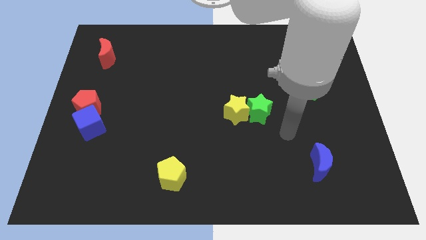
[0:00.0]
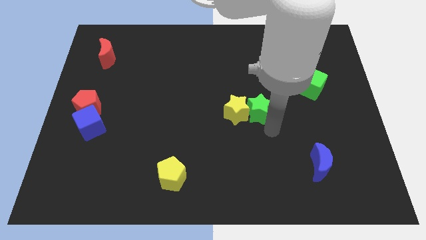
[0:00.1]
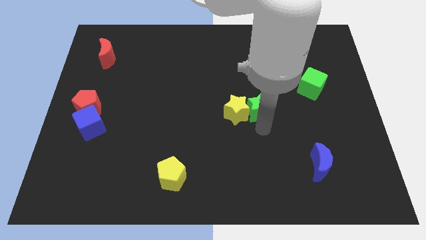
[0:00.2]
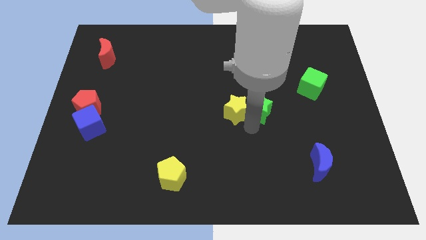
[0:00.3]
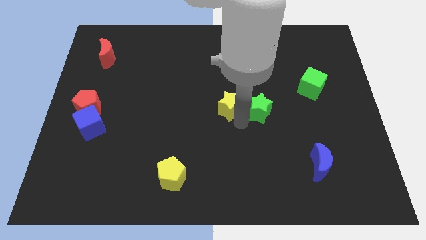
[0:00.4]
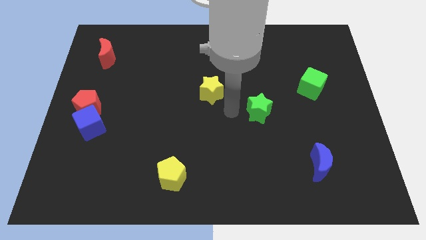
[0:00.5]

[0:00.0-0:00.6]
pull the green star apart from the yellow star

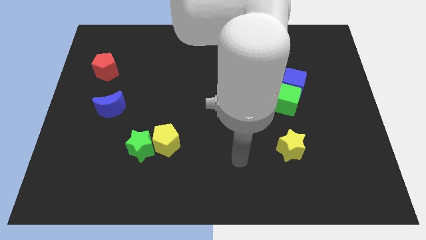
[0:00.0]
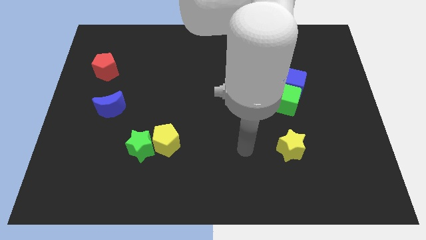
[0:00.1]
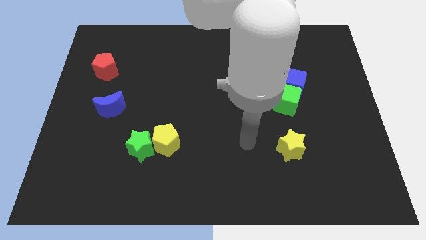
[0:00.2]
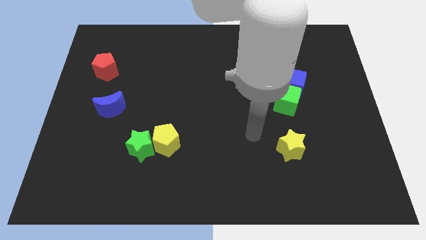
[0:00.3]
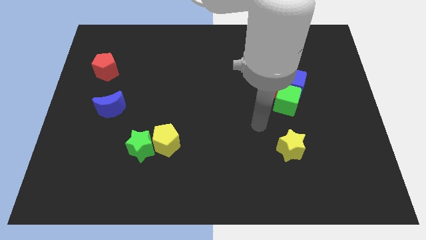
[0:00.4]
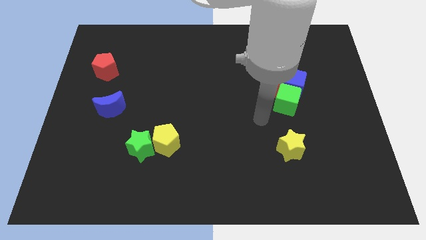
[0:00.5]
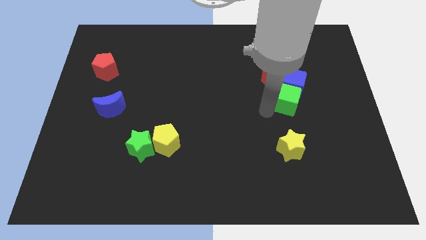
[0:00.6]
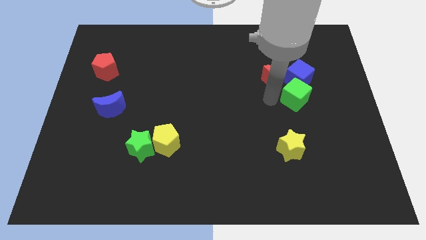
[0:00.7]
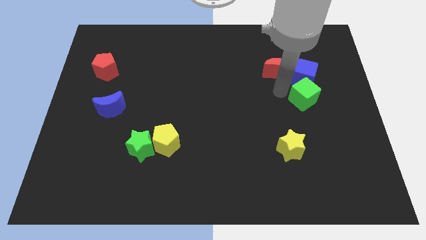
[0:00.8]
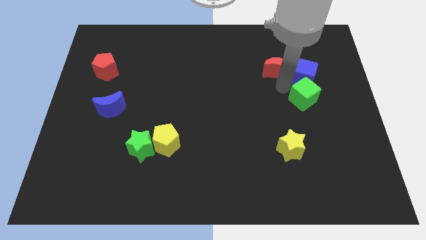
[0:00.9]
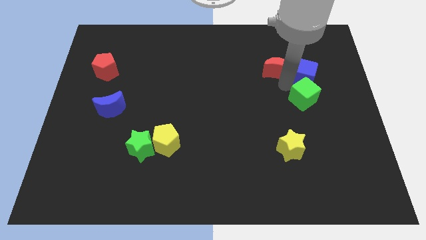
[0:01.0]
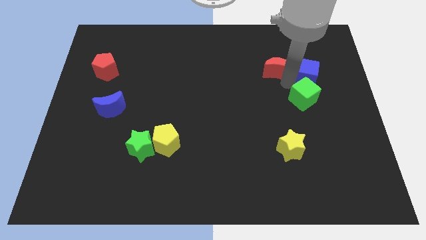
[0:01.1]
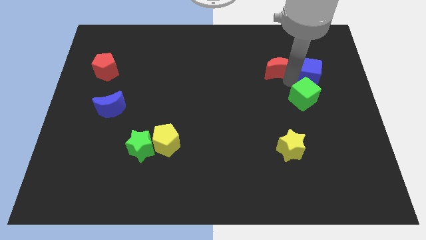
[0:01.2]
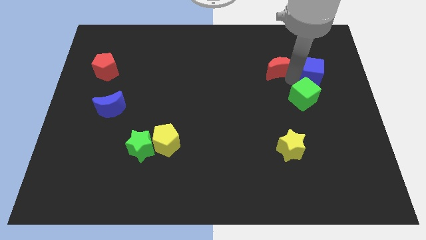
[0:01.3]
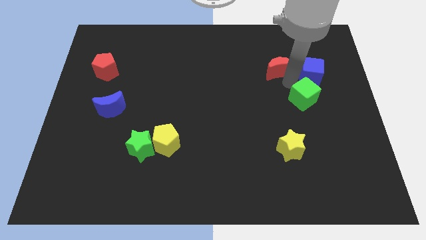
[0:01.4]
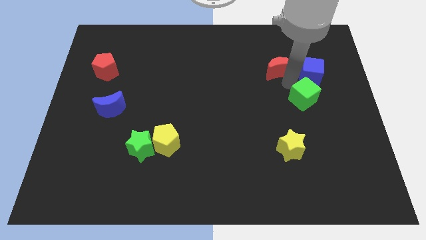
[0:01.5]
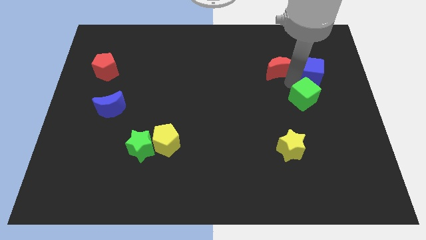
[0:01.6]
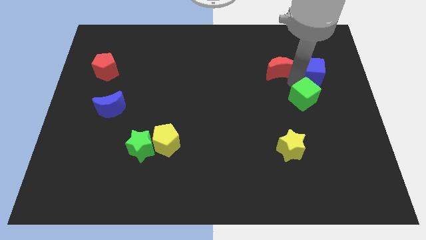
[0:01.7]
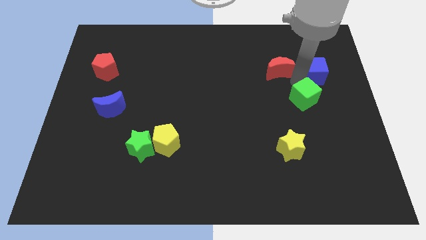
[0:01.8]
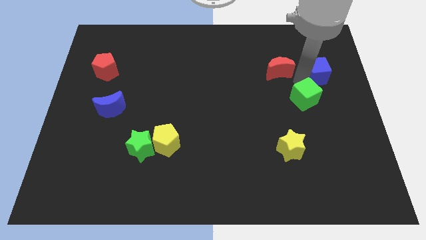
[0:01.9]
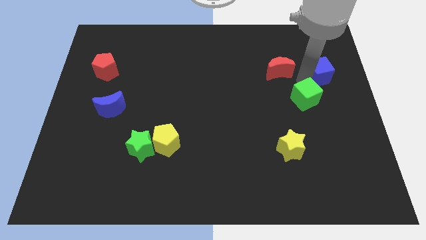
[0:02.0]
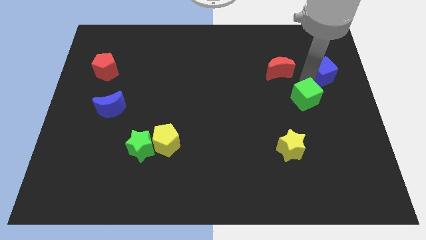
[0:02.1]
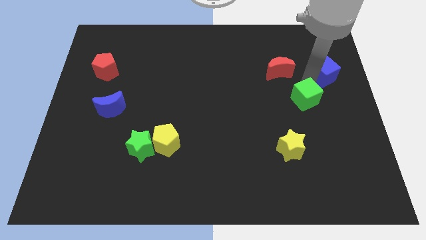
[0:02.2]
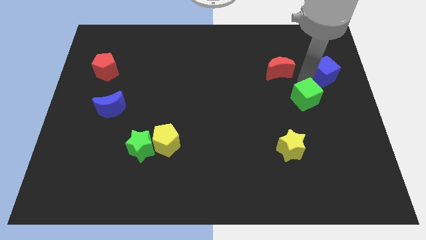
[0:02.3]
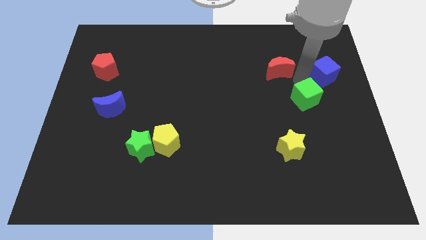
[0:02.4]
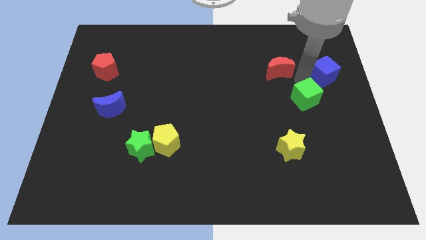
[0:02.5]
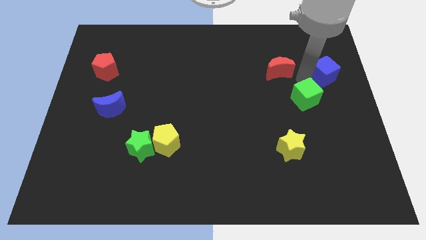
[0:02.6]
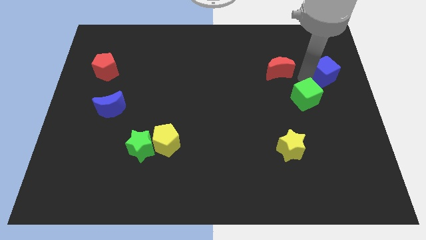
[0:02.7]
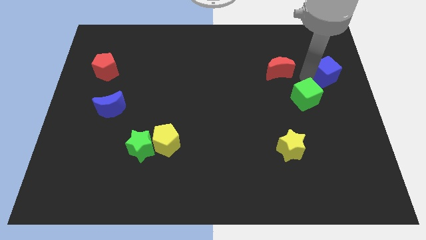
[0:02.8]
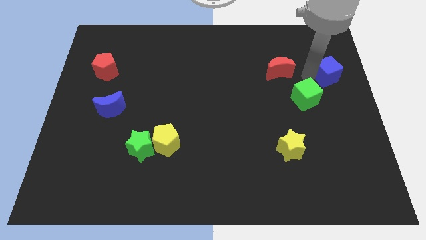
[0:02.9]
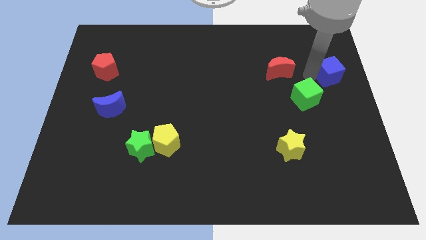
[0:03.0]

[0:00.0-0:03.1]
pull the blue cube apart from the red moon and green cube

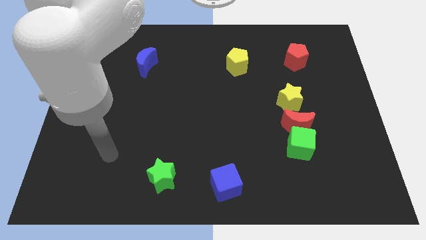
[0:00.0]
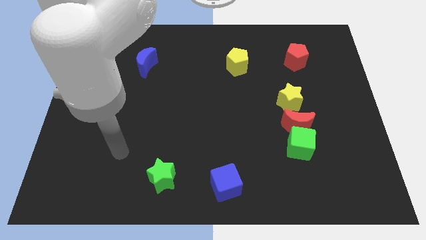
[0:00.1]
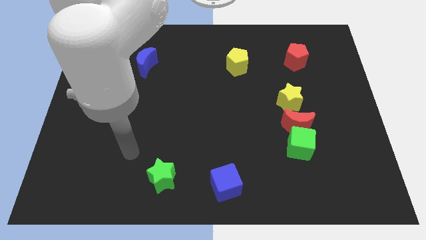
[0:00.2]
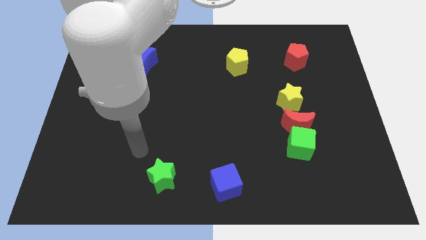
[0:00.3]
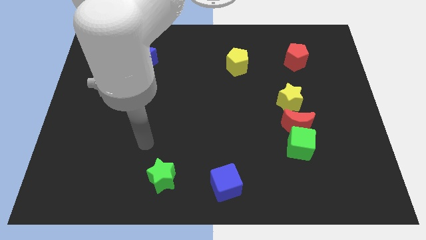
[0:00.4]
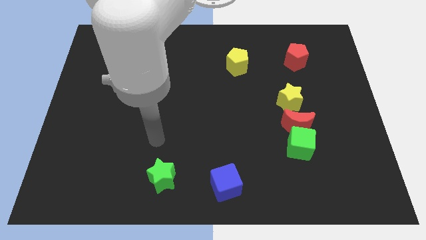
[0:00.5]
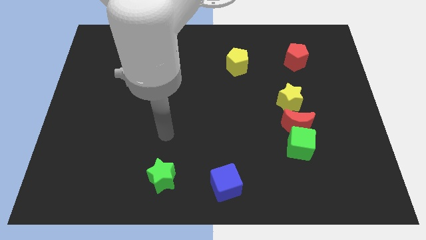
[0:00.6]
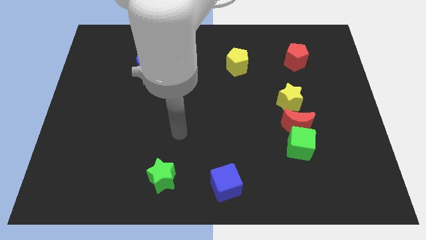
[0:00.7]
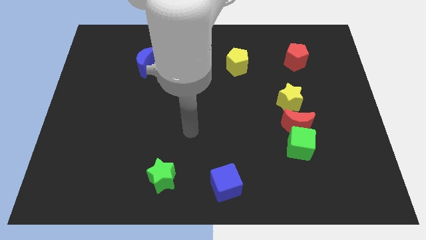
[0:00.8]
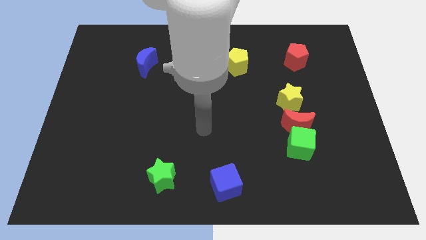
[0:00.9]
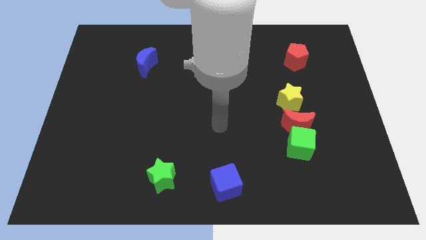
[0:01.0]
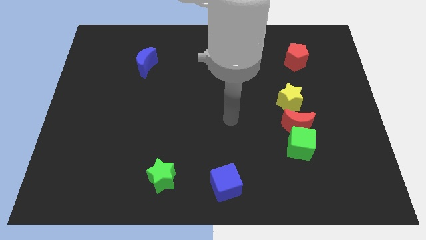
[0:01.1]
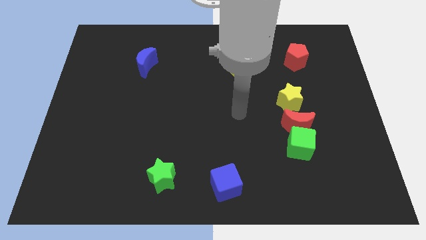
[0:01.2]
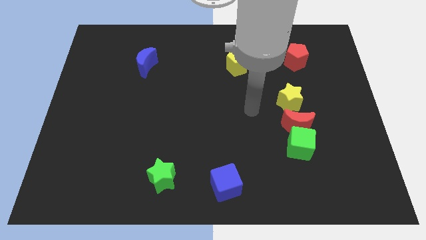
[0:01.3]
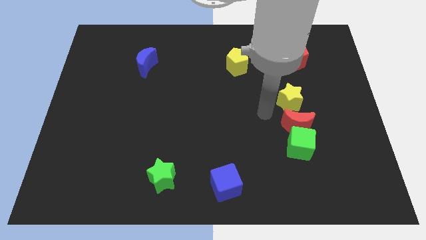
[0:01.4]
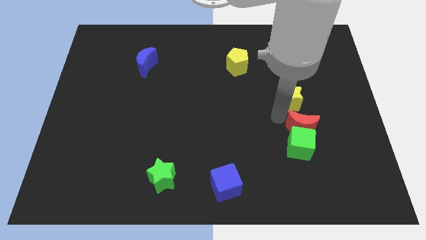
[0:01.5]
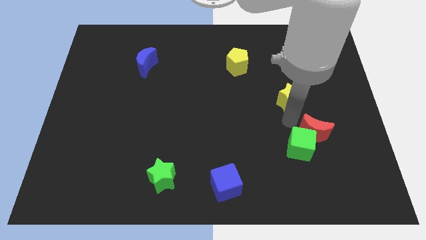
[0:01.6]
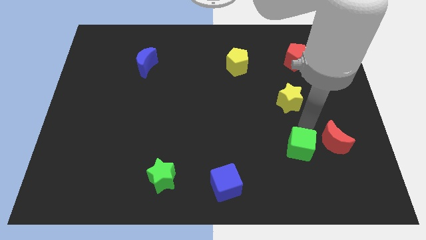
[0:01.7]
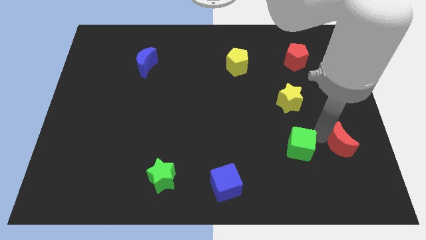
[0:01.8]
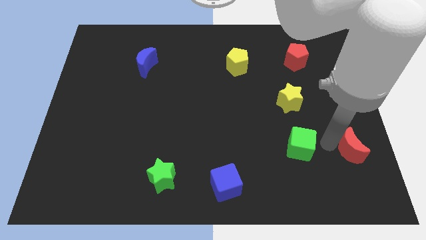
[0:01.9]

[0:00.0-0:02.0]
move the green cube away from the red moon

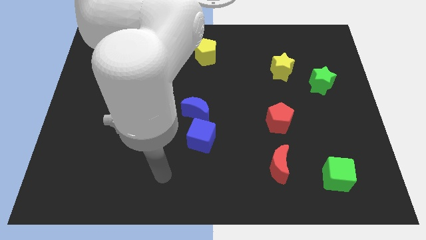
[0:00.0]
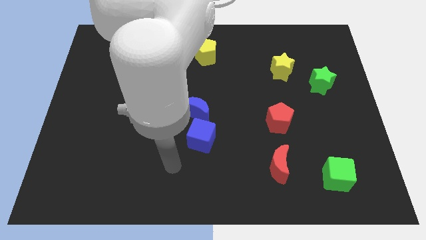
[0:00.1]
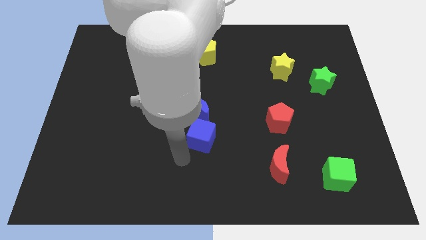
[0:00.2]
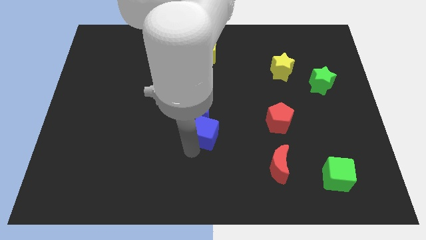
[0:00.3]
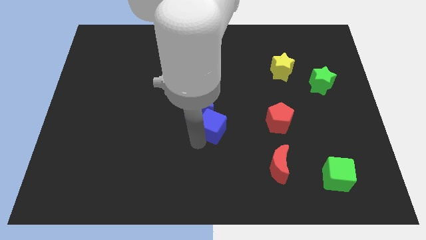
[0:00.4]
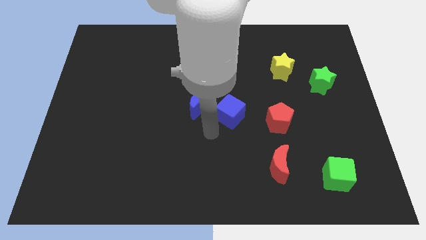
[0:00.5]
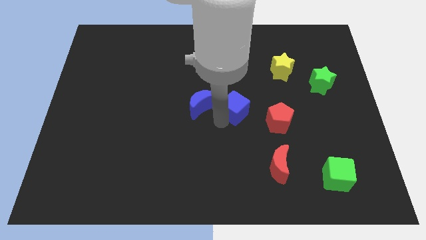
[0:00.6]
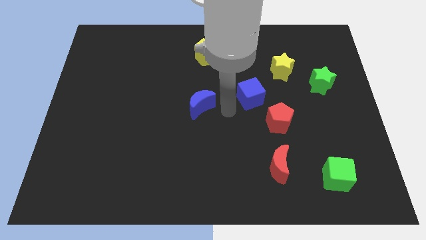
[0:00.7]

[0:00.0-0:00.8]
separate the blue moon from the blue cube

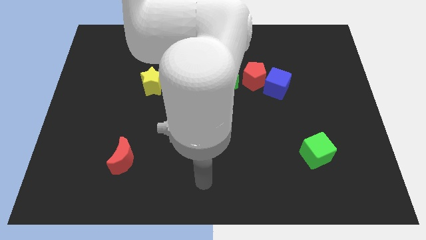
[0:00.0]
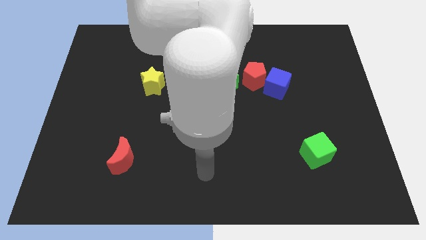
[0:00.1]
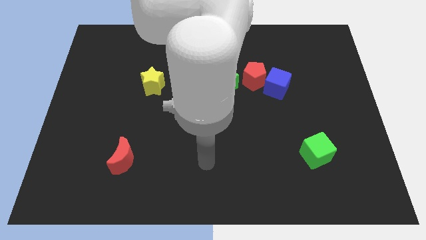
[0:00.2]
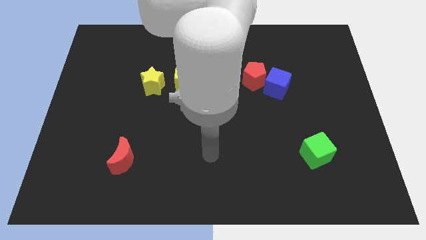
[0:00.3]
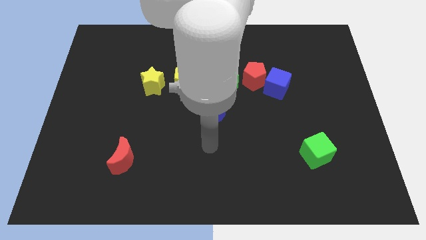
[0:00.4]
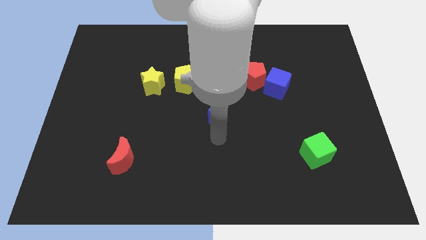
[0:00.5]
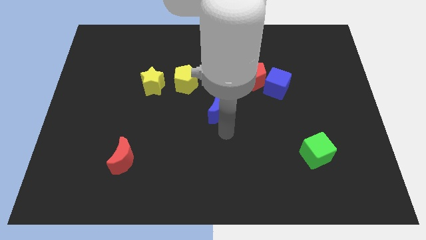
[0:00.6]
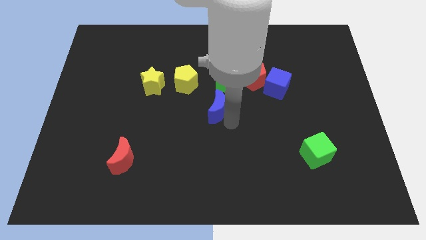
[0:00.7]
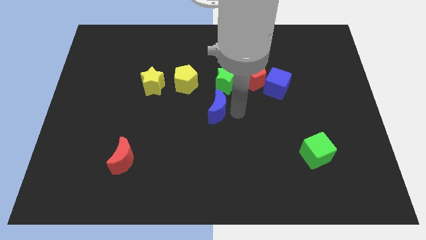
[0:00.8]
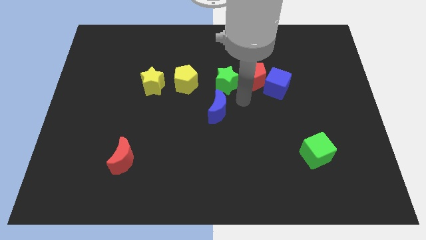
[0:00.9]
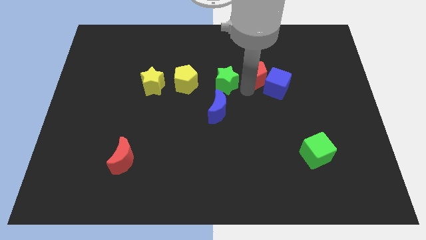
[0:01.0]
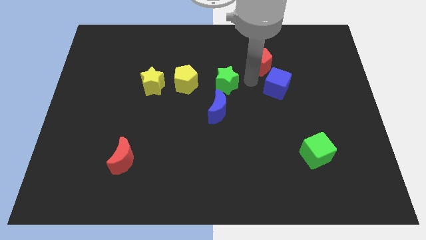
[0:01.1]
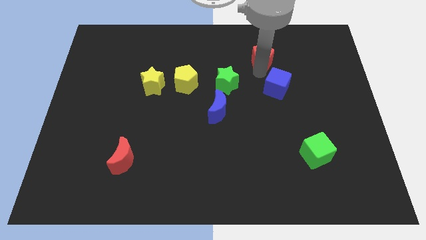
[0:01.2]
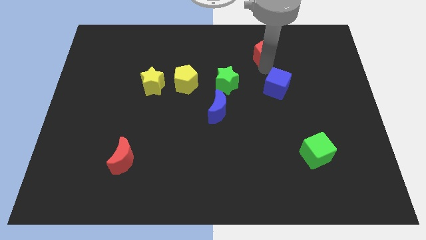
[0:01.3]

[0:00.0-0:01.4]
pull the blue cube apart from the red pentagon

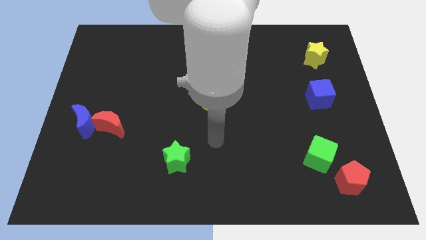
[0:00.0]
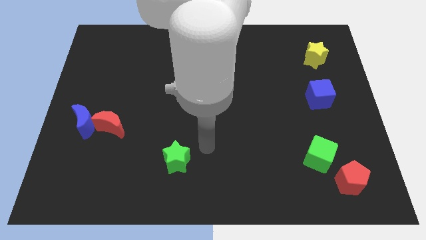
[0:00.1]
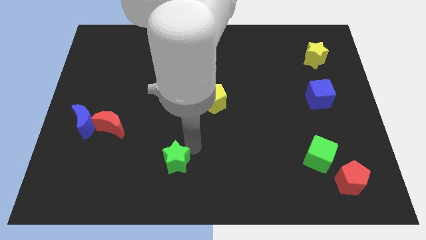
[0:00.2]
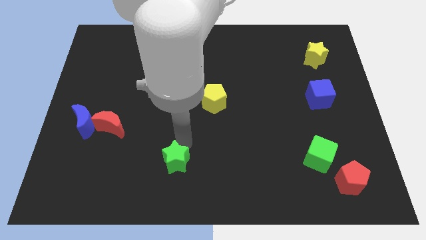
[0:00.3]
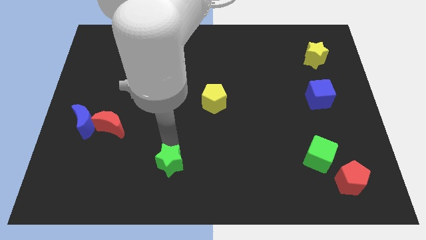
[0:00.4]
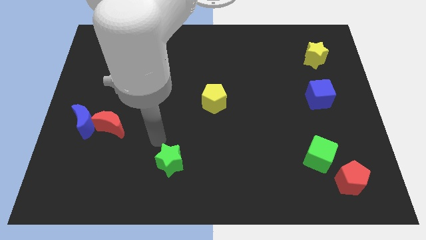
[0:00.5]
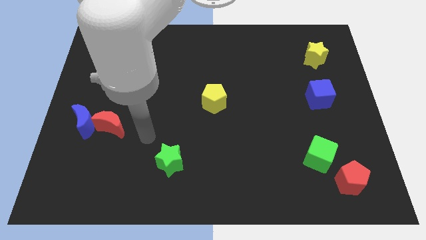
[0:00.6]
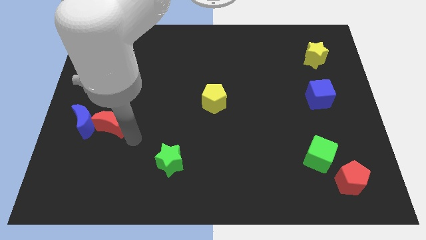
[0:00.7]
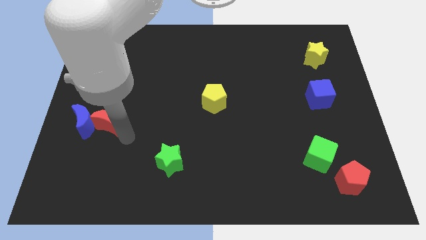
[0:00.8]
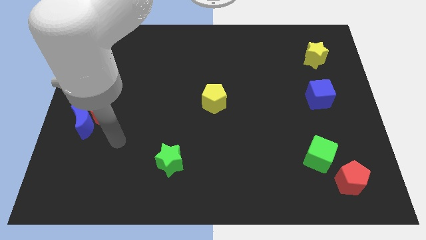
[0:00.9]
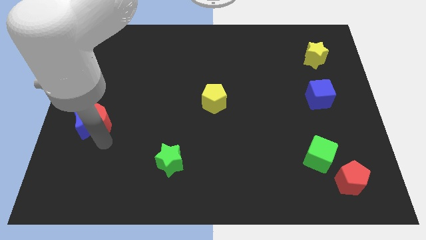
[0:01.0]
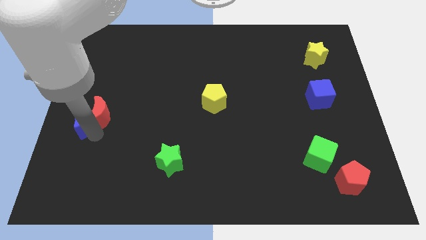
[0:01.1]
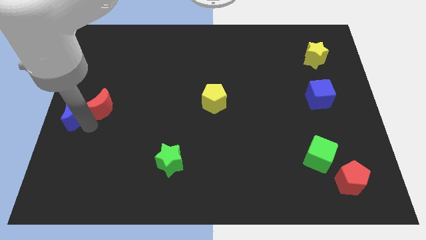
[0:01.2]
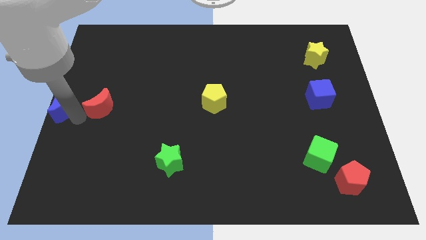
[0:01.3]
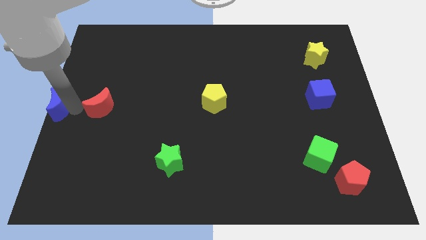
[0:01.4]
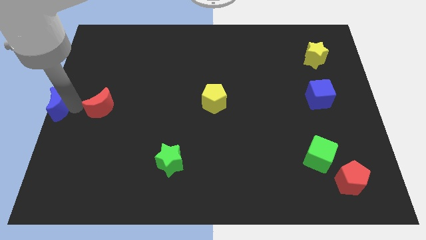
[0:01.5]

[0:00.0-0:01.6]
pull the red moon apart from the blue moon
